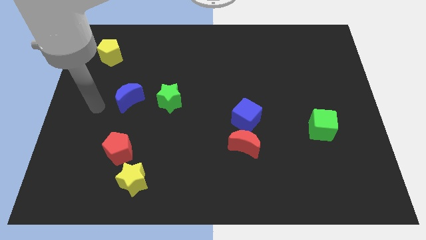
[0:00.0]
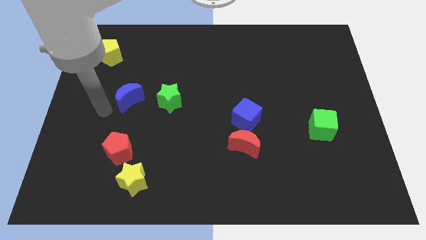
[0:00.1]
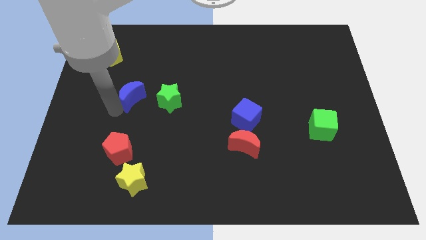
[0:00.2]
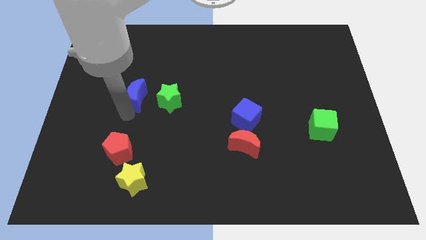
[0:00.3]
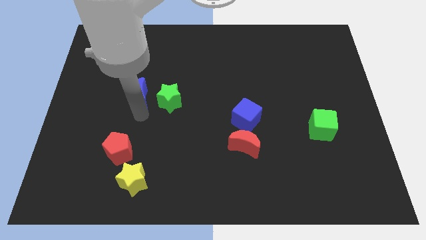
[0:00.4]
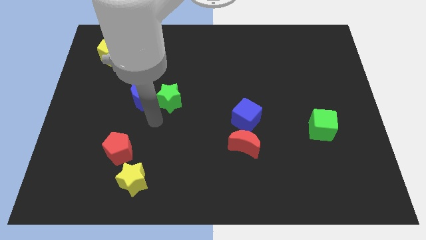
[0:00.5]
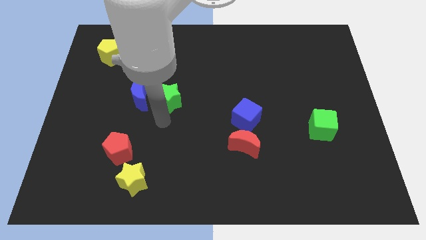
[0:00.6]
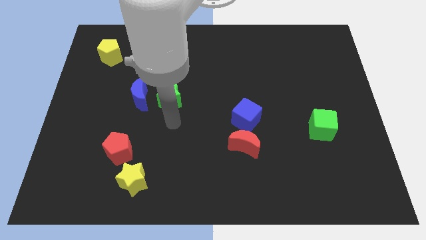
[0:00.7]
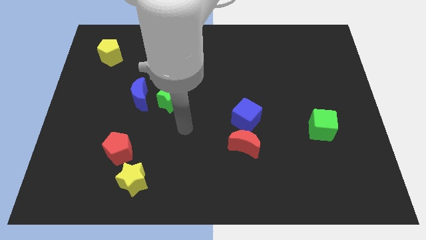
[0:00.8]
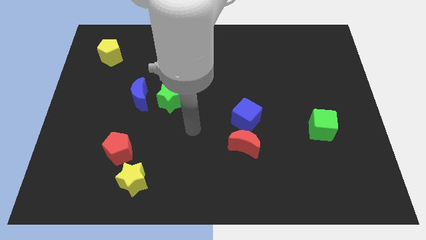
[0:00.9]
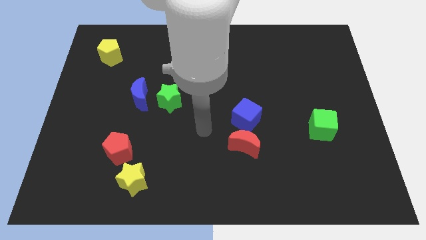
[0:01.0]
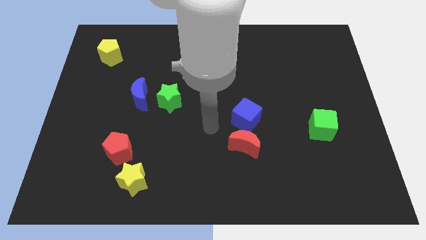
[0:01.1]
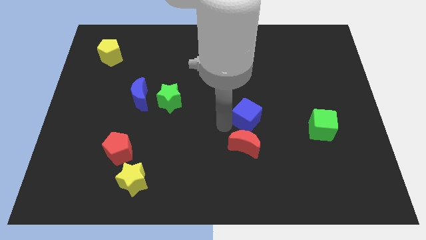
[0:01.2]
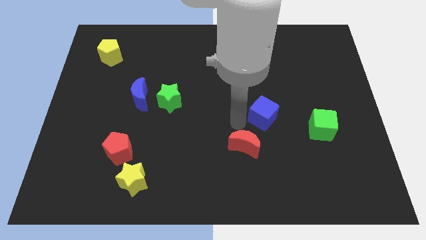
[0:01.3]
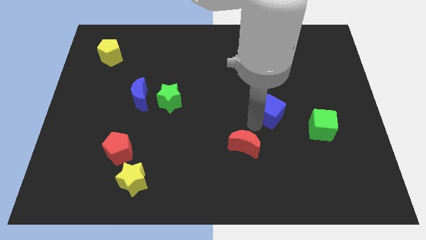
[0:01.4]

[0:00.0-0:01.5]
pull the red moon apart from the blue cube

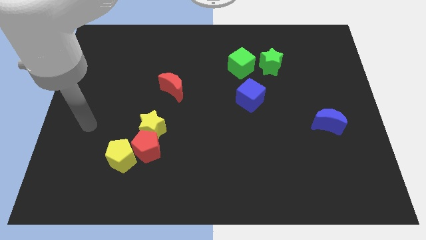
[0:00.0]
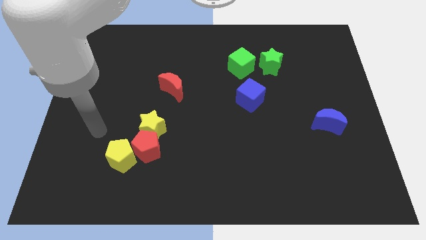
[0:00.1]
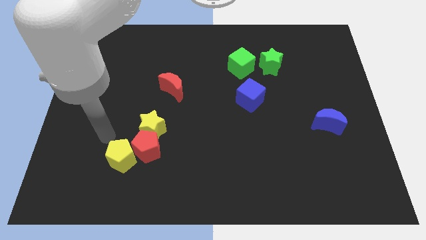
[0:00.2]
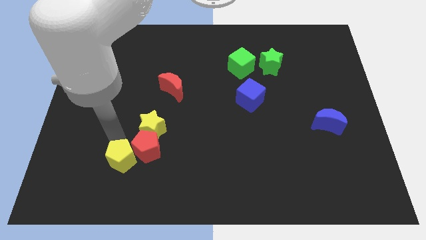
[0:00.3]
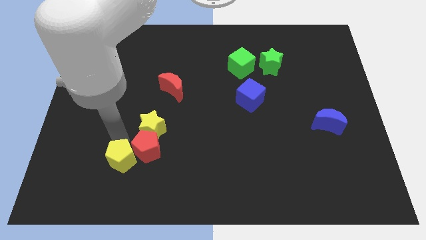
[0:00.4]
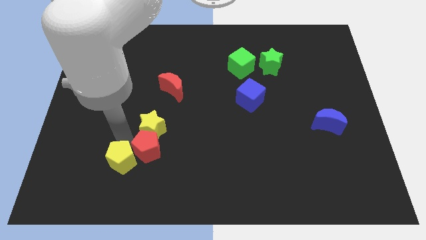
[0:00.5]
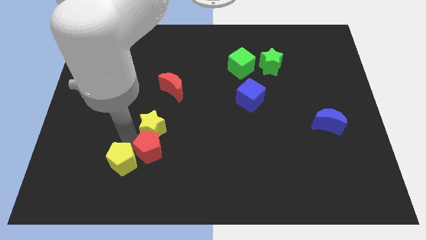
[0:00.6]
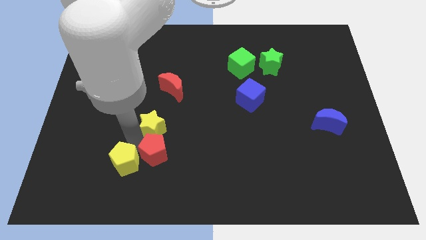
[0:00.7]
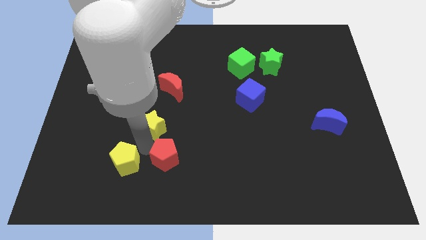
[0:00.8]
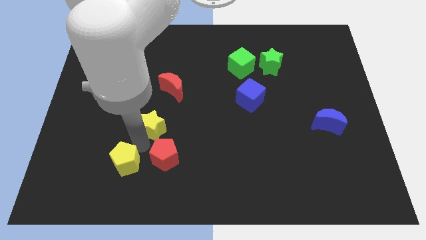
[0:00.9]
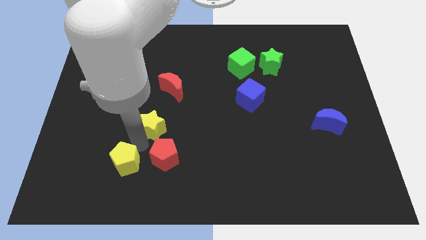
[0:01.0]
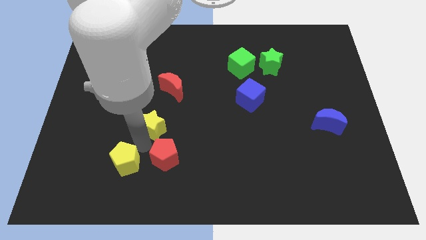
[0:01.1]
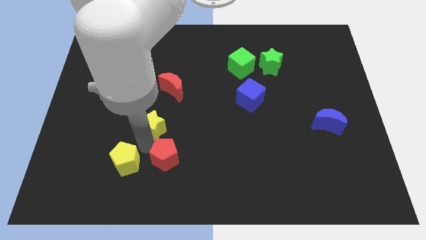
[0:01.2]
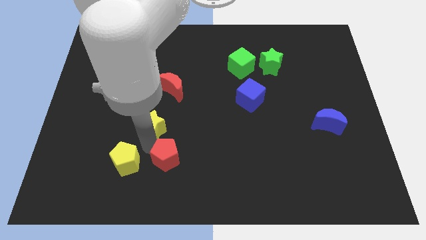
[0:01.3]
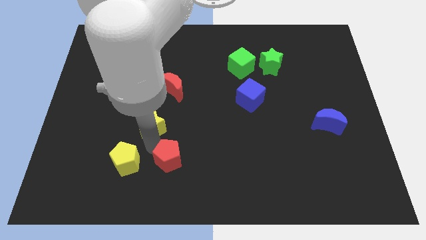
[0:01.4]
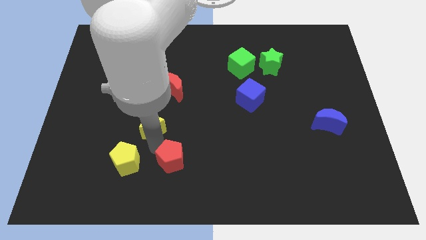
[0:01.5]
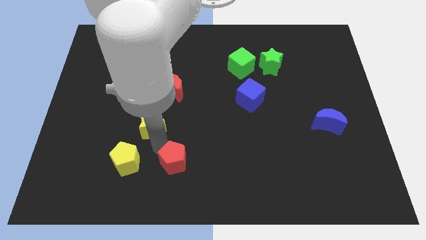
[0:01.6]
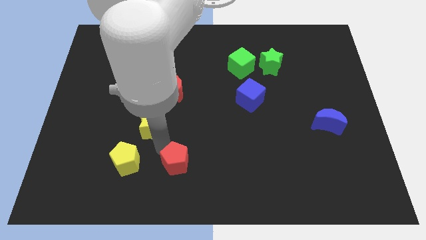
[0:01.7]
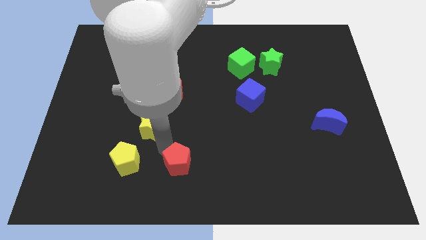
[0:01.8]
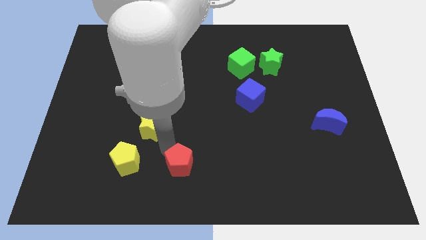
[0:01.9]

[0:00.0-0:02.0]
pull the red pentagon apart from the yellow star and yellow pentagon

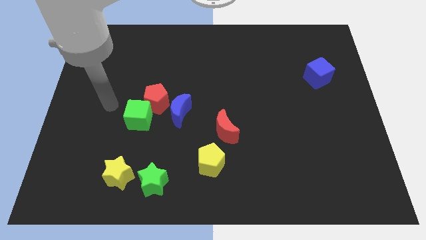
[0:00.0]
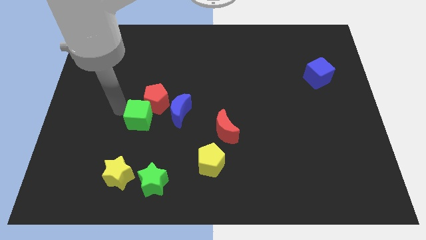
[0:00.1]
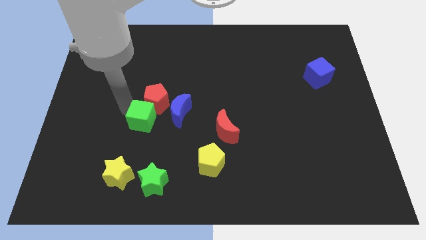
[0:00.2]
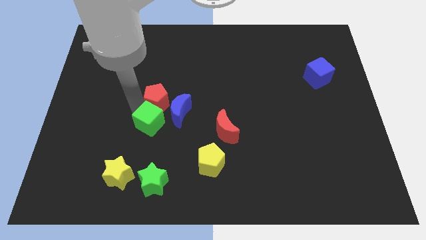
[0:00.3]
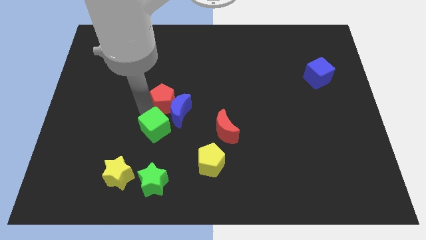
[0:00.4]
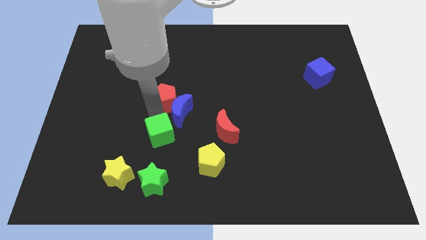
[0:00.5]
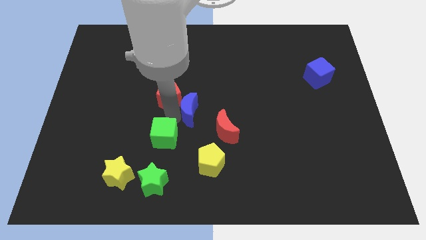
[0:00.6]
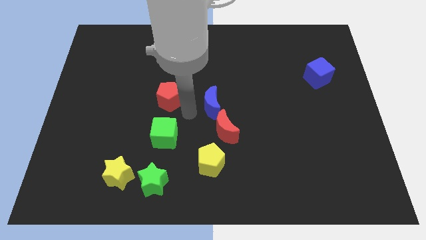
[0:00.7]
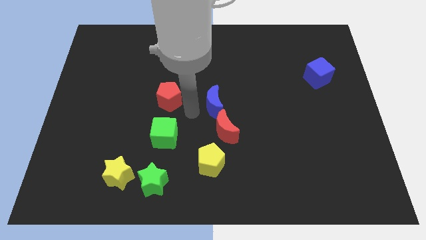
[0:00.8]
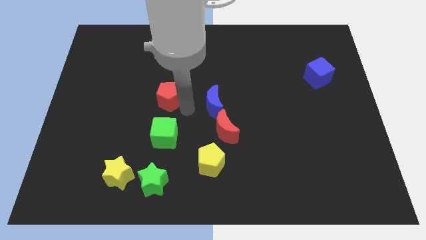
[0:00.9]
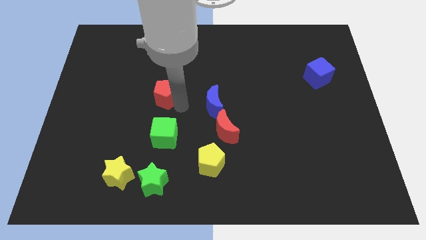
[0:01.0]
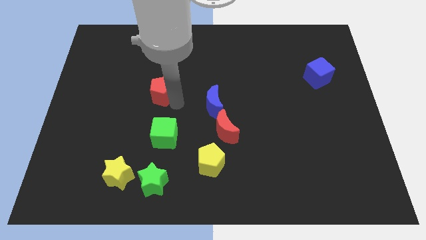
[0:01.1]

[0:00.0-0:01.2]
move the red pentagon away from the green cube and blue moon

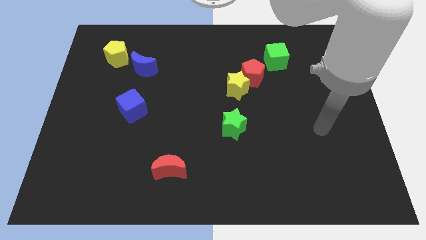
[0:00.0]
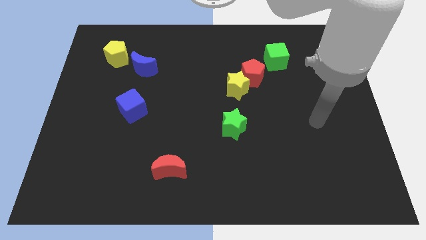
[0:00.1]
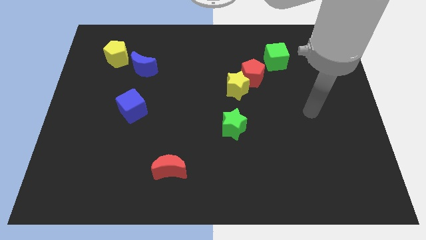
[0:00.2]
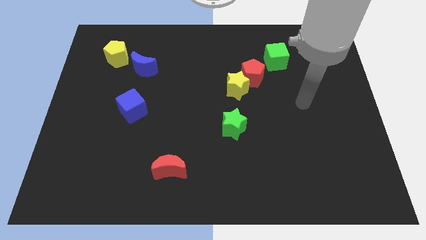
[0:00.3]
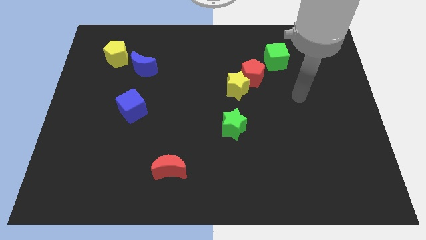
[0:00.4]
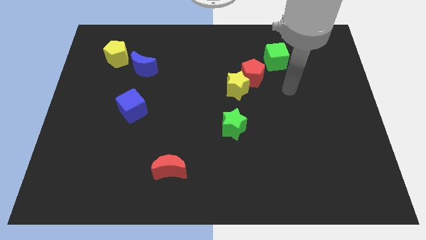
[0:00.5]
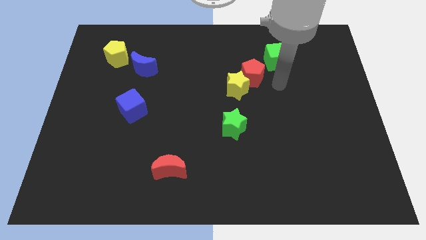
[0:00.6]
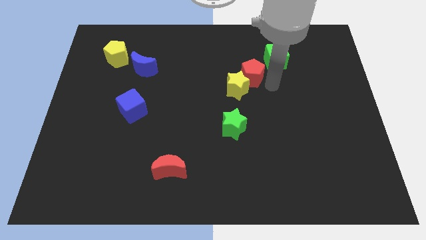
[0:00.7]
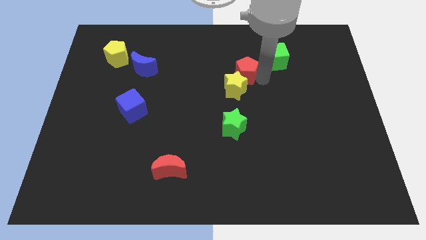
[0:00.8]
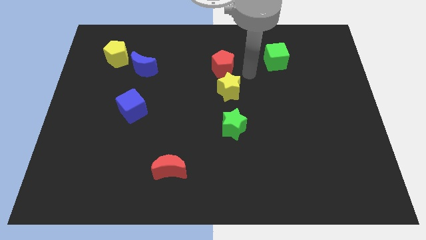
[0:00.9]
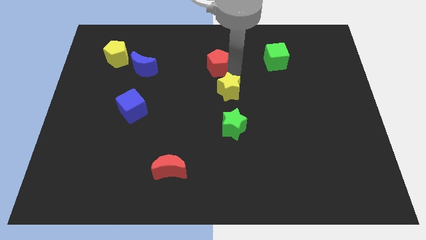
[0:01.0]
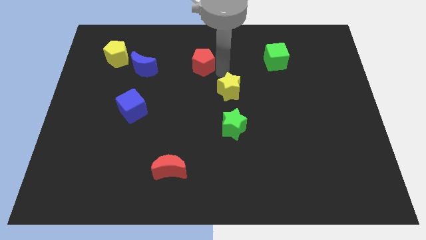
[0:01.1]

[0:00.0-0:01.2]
separate the yellow star from the red pentagon

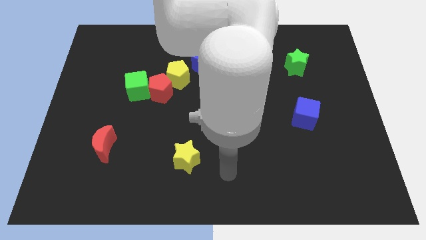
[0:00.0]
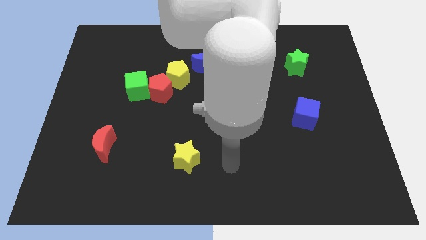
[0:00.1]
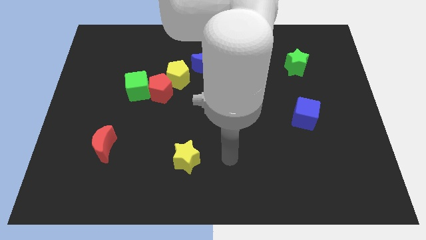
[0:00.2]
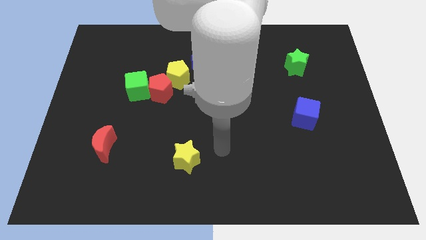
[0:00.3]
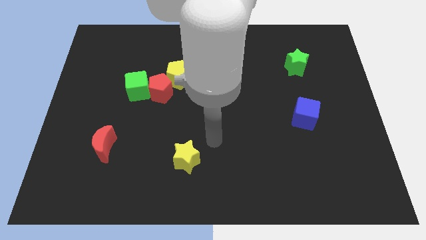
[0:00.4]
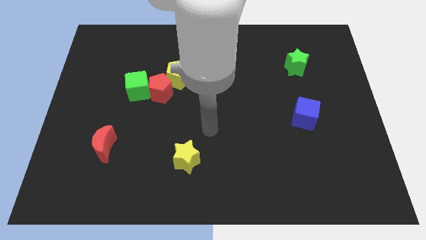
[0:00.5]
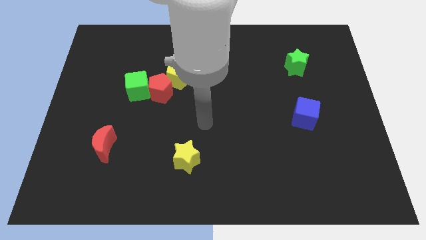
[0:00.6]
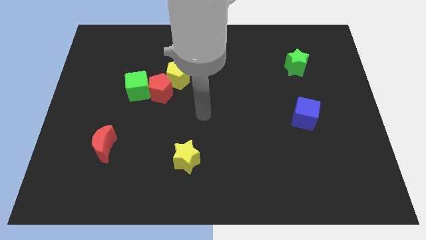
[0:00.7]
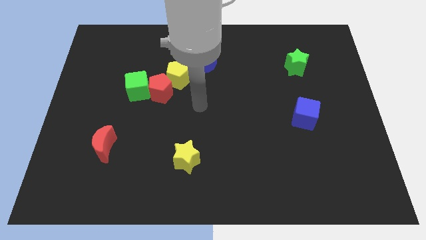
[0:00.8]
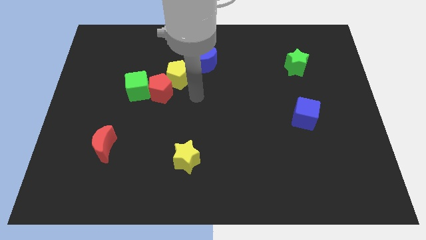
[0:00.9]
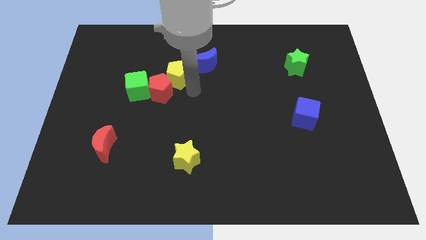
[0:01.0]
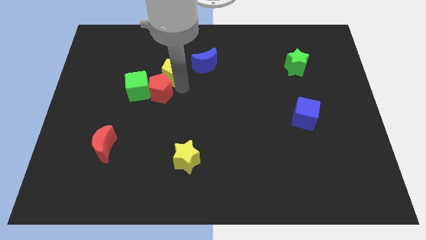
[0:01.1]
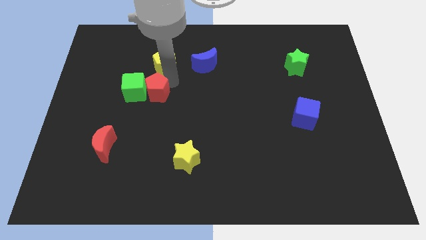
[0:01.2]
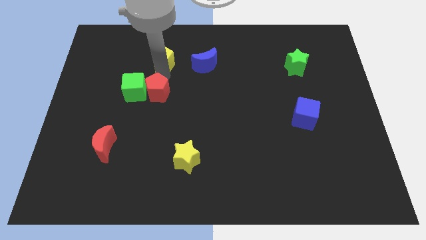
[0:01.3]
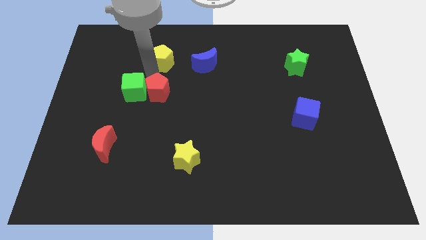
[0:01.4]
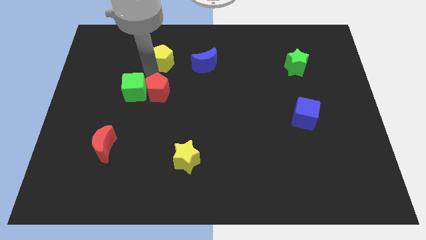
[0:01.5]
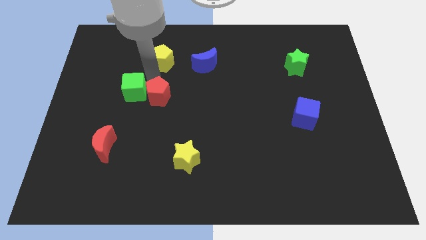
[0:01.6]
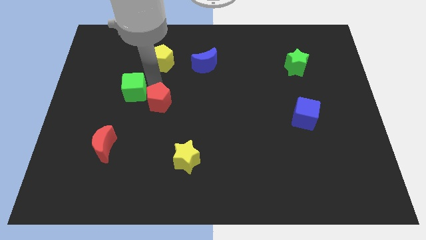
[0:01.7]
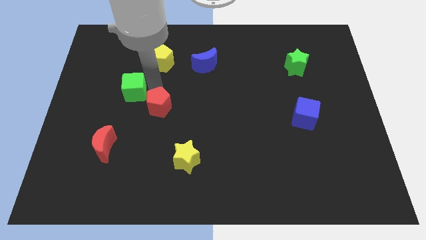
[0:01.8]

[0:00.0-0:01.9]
move the red pentagon away from the green cube and yellow pentagon

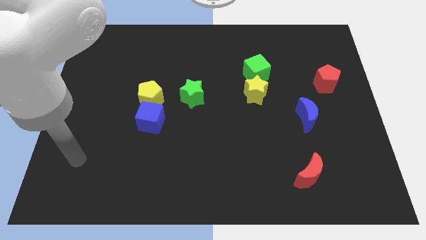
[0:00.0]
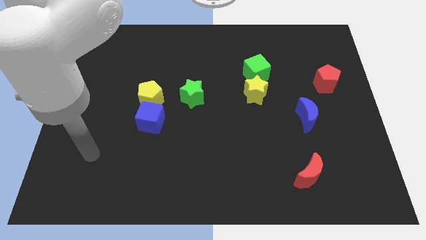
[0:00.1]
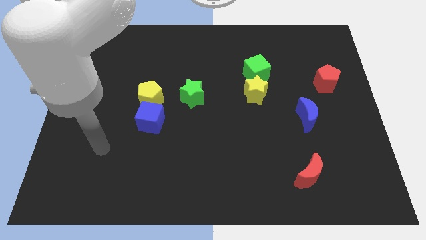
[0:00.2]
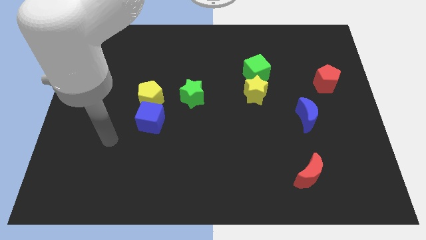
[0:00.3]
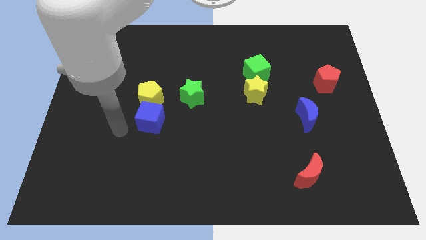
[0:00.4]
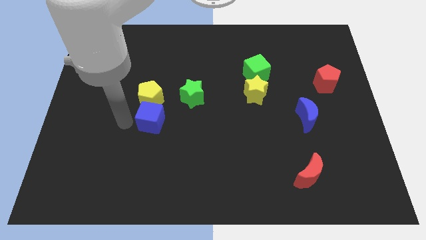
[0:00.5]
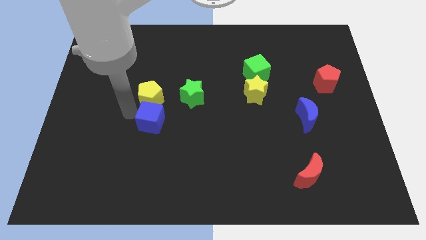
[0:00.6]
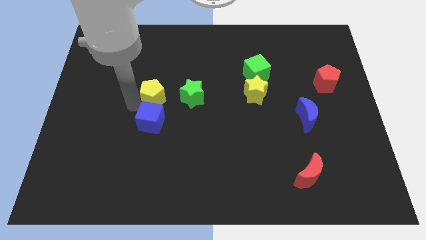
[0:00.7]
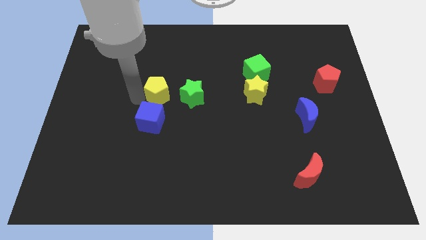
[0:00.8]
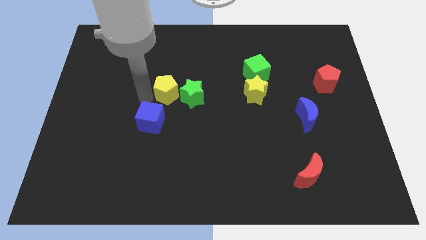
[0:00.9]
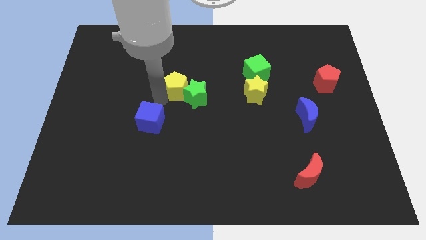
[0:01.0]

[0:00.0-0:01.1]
pull the blue cube apart from the yellow pentagon

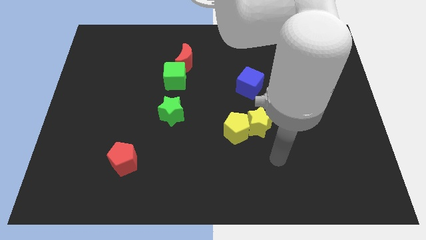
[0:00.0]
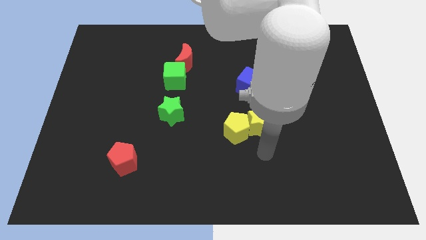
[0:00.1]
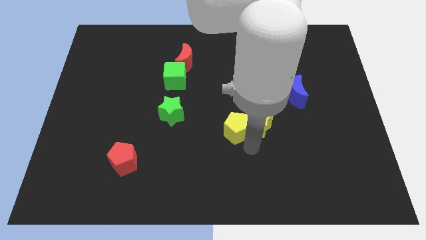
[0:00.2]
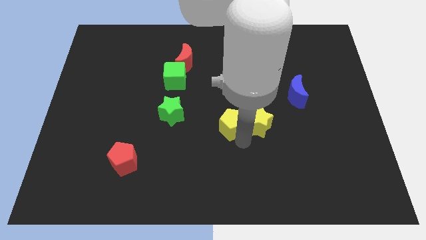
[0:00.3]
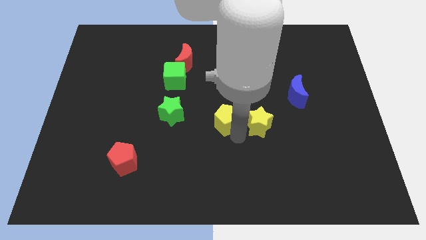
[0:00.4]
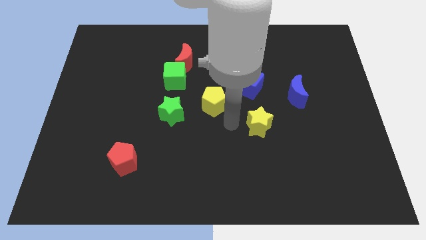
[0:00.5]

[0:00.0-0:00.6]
pull the yellow star apart from the yellow pentagon
